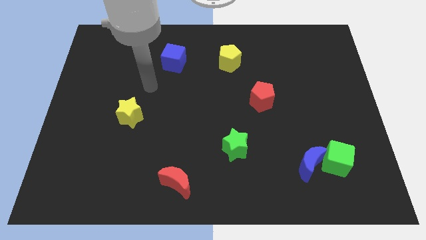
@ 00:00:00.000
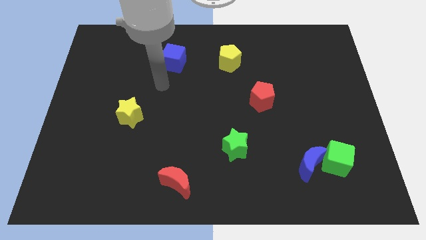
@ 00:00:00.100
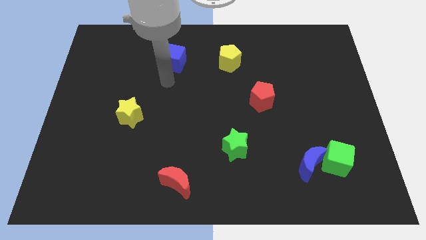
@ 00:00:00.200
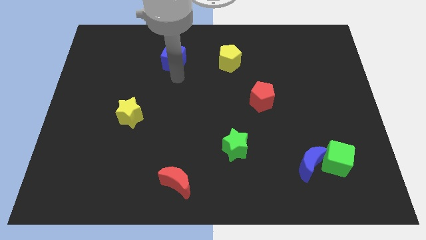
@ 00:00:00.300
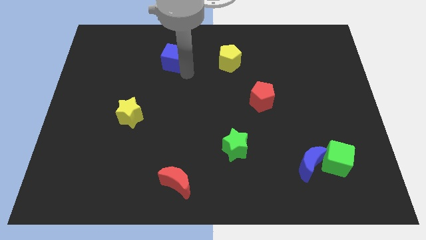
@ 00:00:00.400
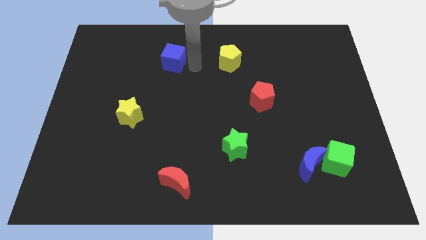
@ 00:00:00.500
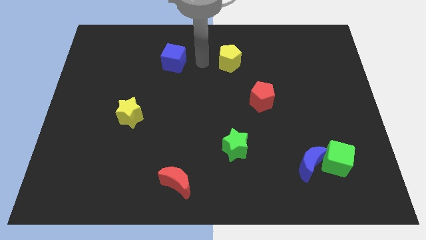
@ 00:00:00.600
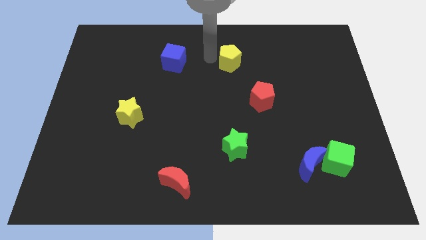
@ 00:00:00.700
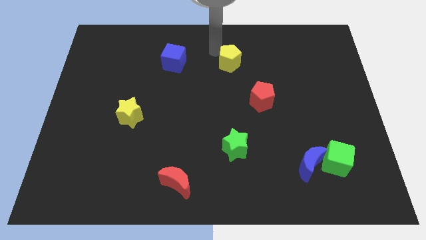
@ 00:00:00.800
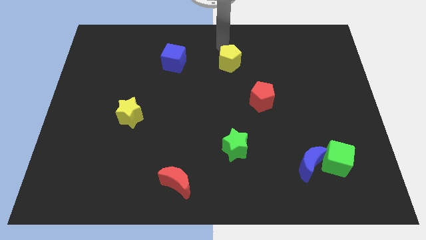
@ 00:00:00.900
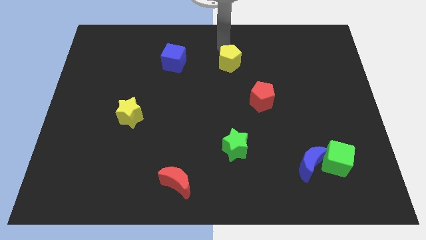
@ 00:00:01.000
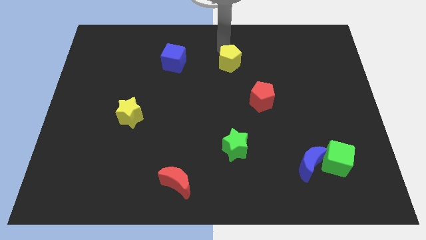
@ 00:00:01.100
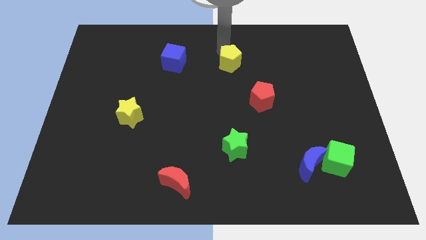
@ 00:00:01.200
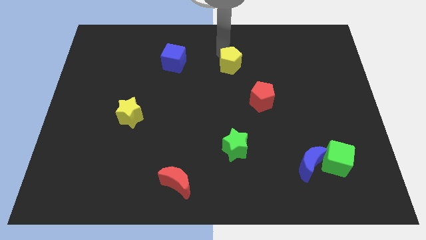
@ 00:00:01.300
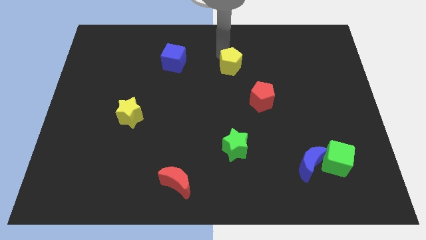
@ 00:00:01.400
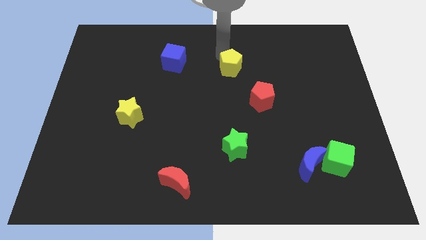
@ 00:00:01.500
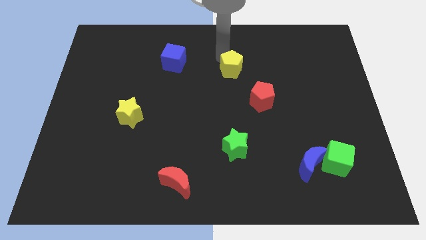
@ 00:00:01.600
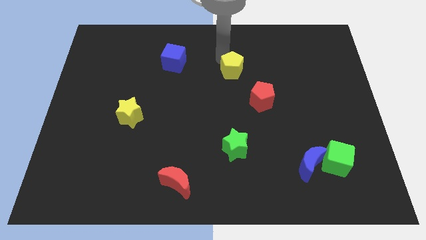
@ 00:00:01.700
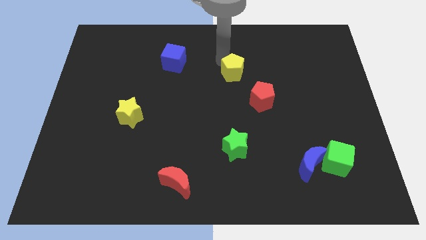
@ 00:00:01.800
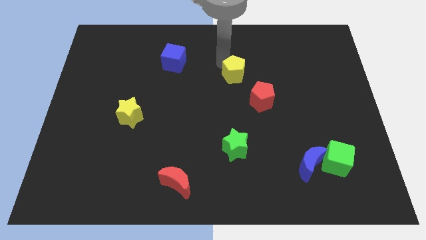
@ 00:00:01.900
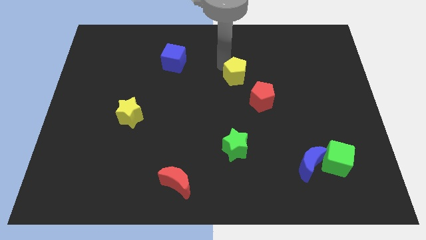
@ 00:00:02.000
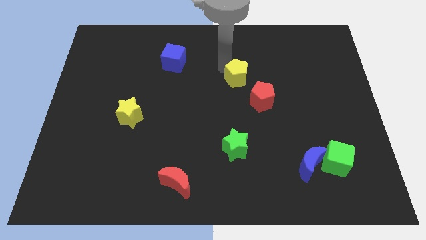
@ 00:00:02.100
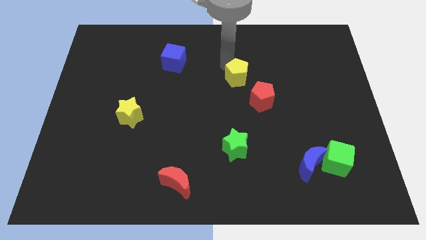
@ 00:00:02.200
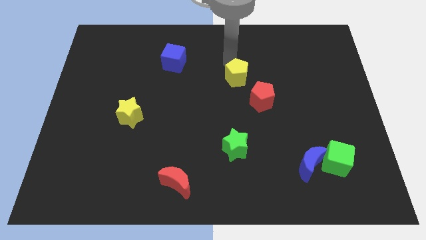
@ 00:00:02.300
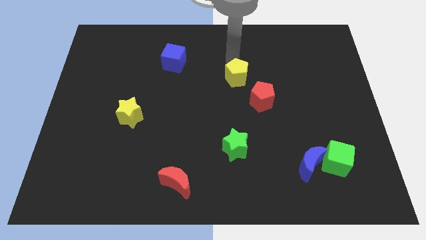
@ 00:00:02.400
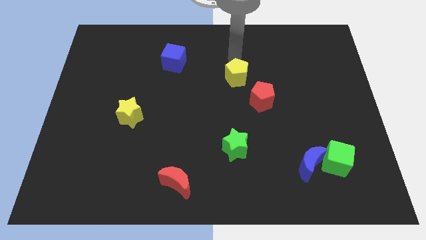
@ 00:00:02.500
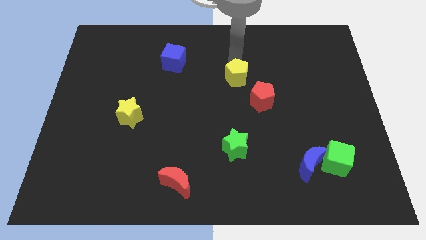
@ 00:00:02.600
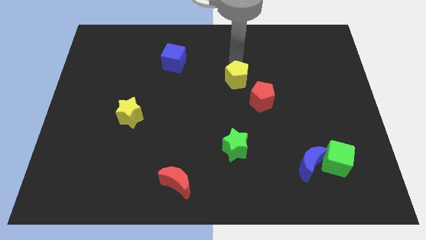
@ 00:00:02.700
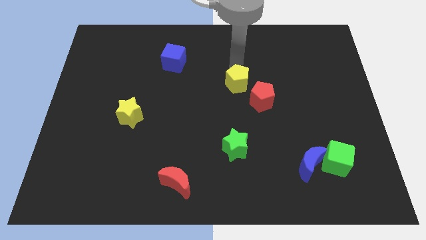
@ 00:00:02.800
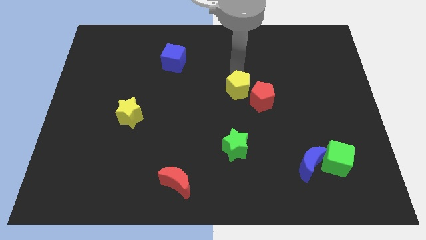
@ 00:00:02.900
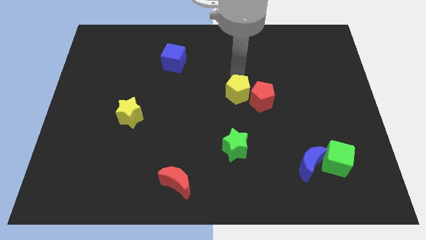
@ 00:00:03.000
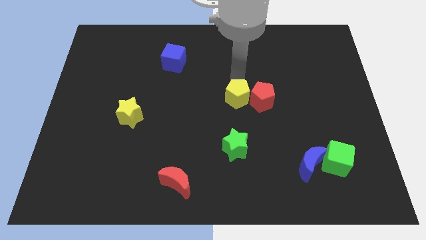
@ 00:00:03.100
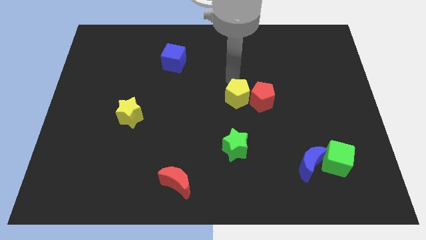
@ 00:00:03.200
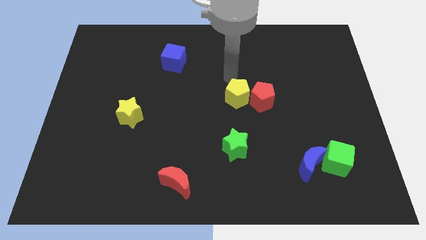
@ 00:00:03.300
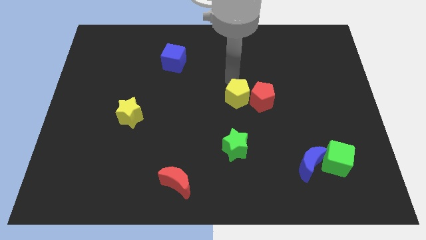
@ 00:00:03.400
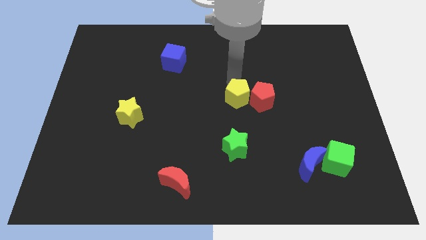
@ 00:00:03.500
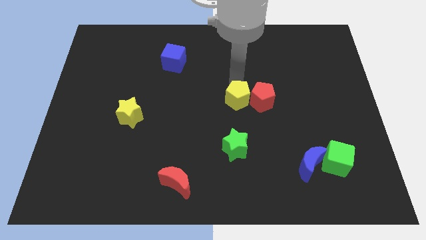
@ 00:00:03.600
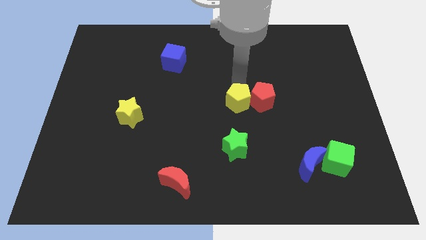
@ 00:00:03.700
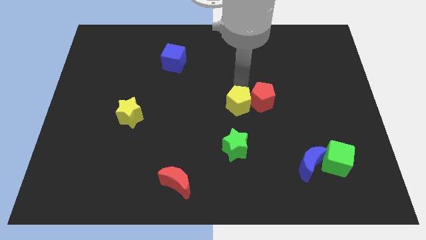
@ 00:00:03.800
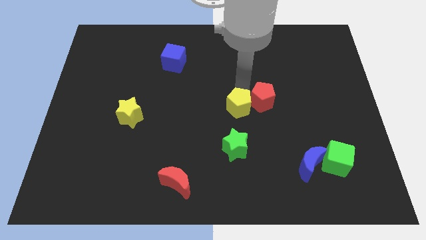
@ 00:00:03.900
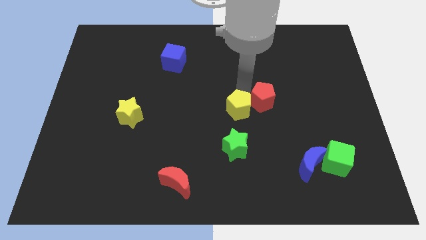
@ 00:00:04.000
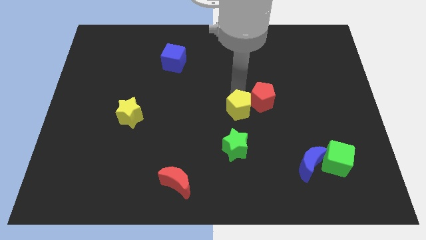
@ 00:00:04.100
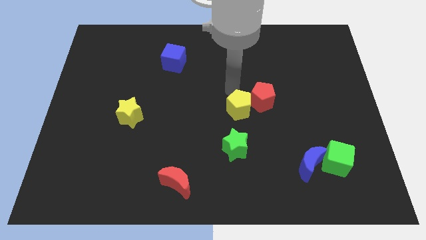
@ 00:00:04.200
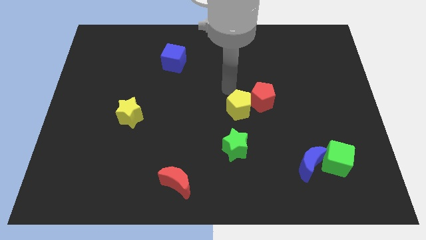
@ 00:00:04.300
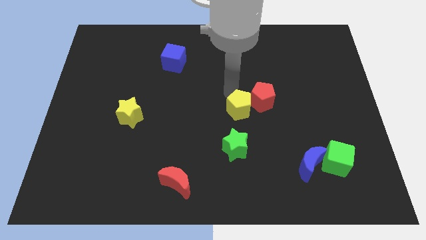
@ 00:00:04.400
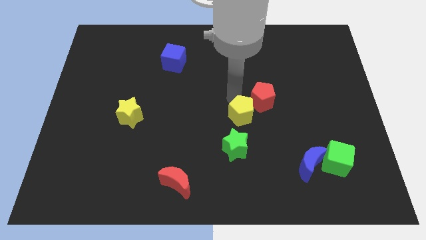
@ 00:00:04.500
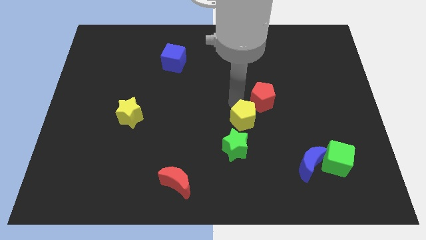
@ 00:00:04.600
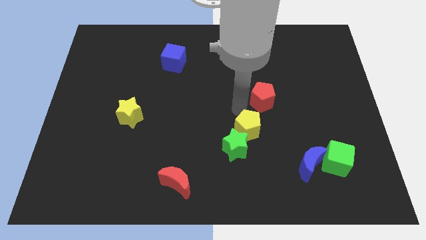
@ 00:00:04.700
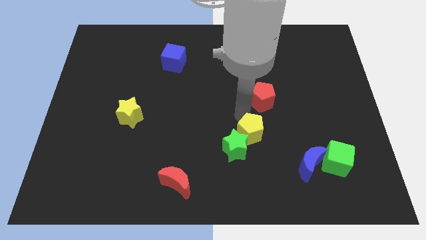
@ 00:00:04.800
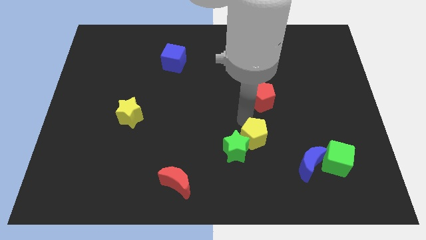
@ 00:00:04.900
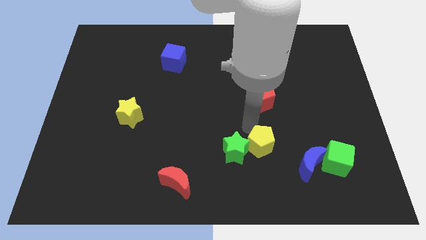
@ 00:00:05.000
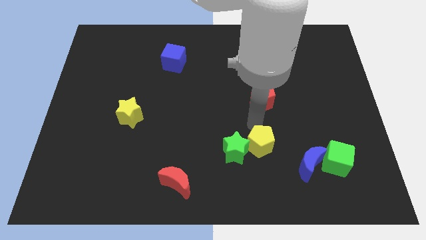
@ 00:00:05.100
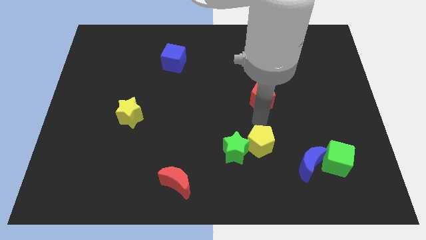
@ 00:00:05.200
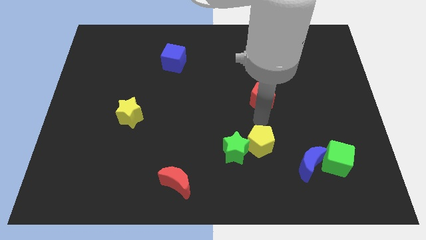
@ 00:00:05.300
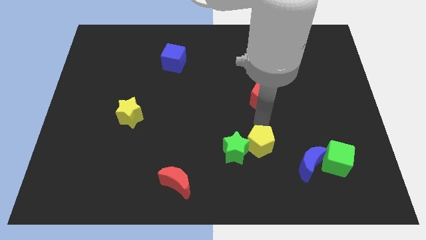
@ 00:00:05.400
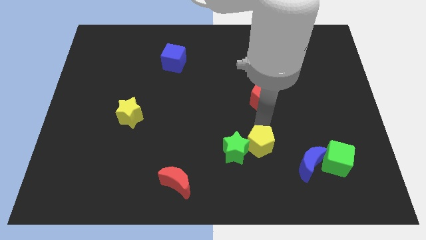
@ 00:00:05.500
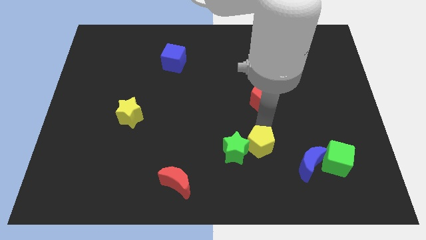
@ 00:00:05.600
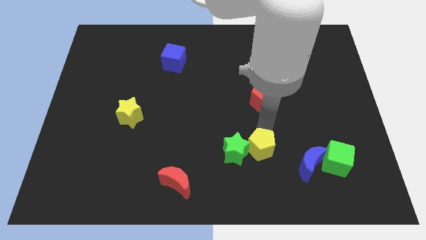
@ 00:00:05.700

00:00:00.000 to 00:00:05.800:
push the yellow pentagon to the bottom right of the green star
